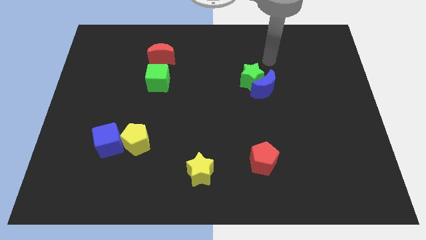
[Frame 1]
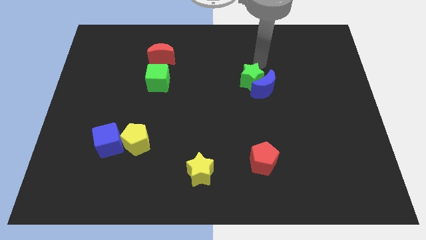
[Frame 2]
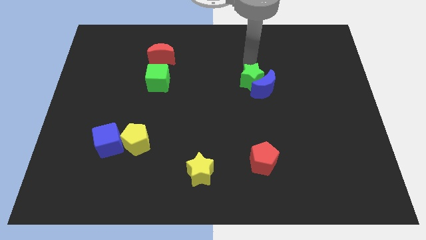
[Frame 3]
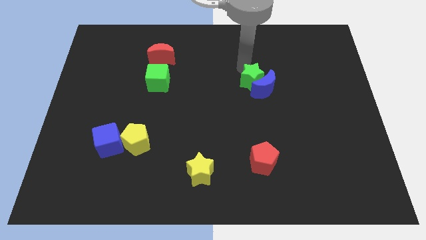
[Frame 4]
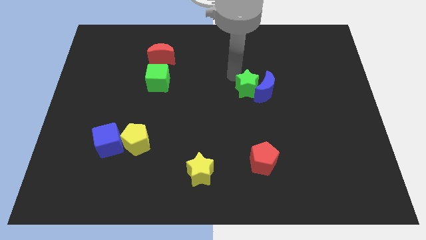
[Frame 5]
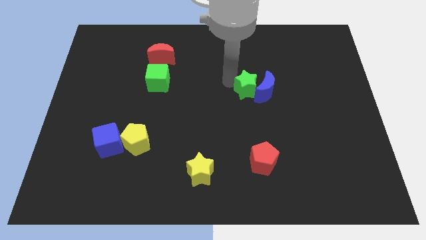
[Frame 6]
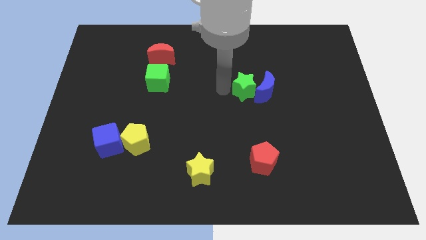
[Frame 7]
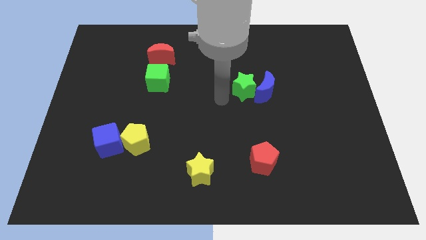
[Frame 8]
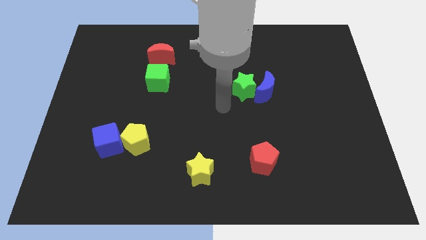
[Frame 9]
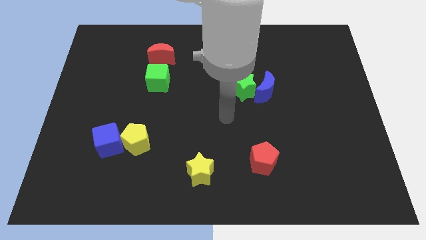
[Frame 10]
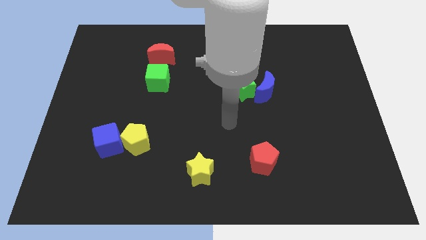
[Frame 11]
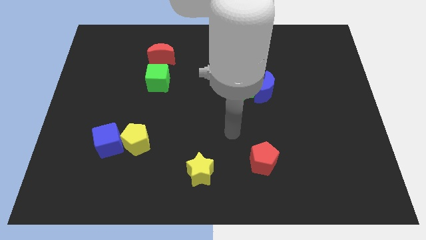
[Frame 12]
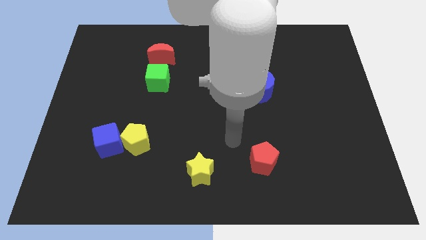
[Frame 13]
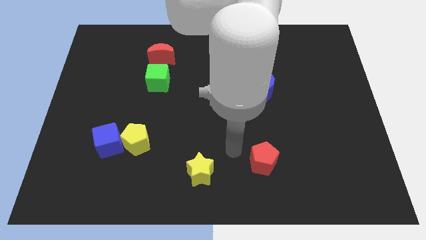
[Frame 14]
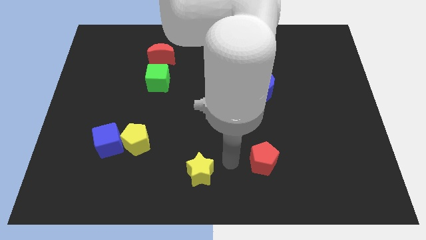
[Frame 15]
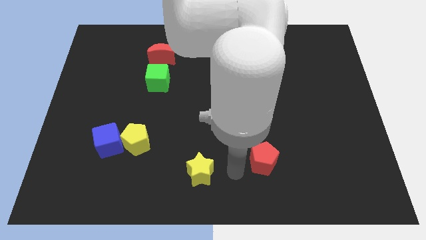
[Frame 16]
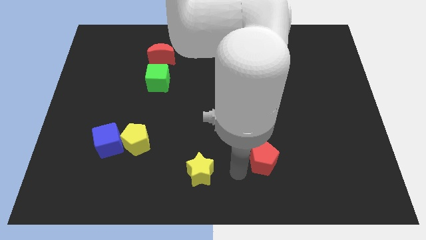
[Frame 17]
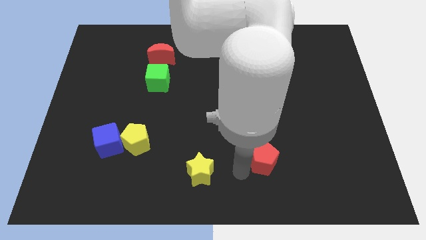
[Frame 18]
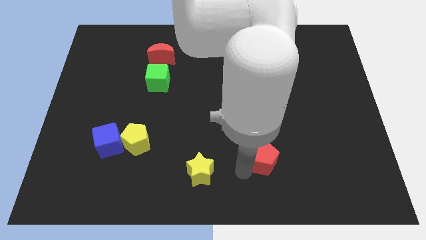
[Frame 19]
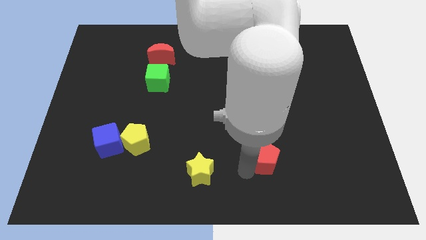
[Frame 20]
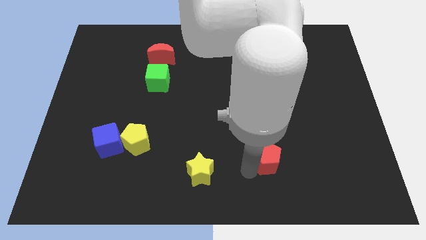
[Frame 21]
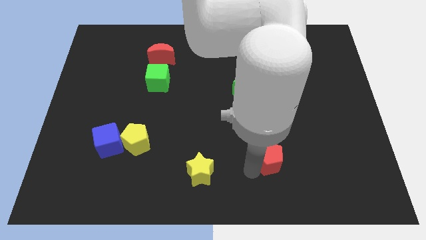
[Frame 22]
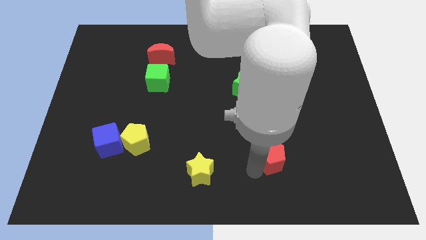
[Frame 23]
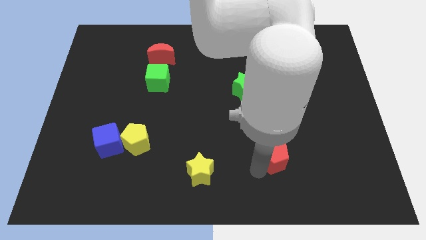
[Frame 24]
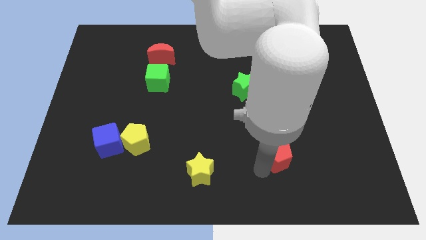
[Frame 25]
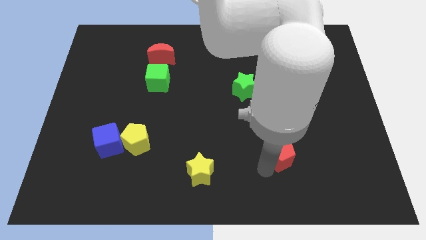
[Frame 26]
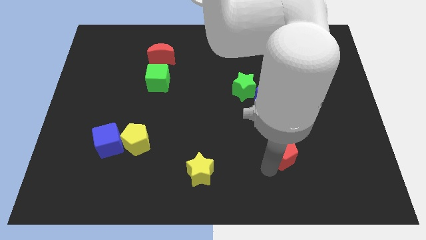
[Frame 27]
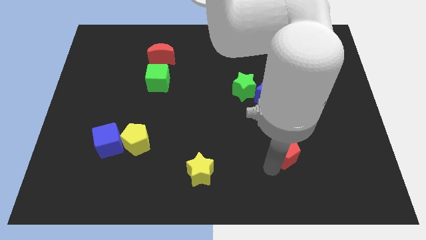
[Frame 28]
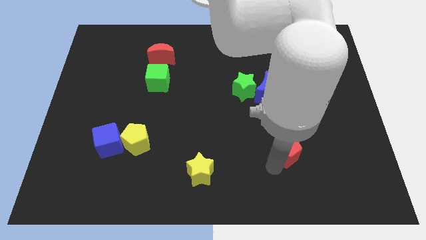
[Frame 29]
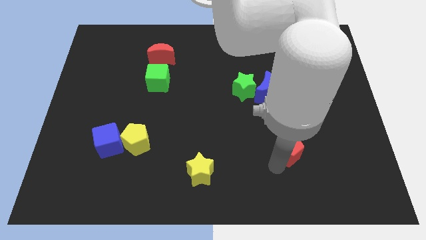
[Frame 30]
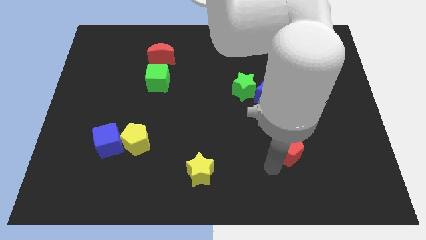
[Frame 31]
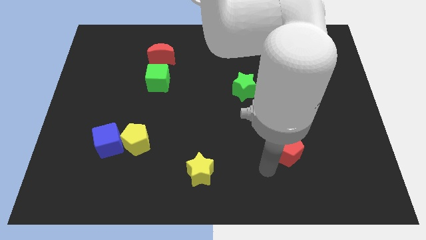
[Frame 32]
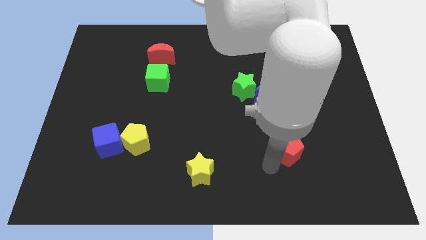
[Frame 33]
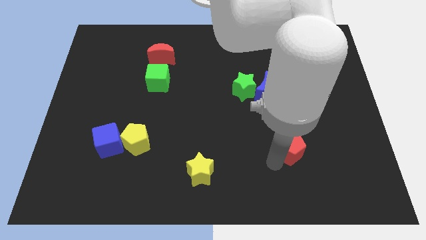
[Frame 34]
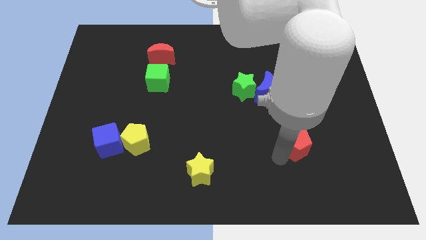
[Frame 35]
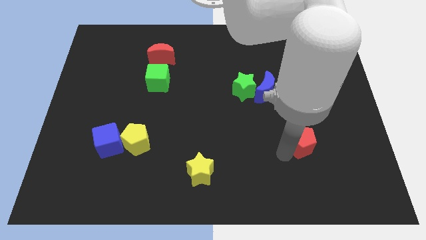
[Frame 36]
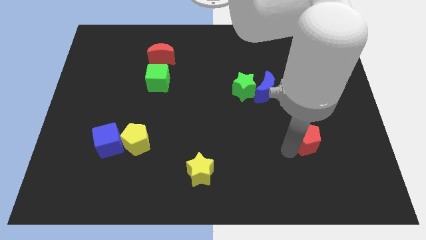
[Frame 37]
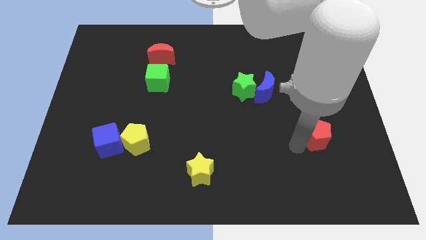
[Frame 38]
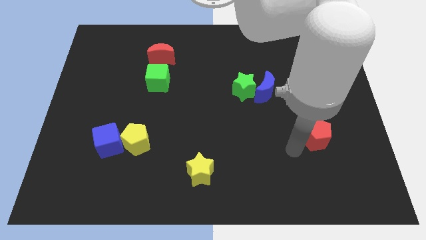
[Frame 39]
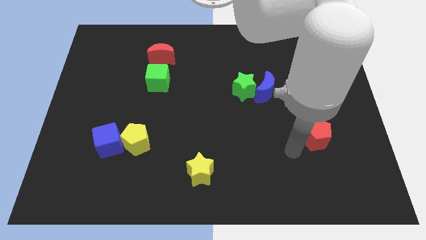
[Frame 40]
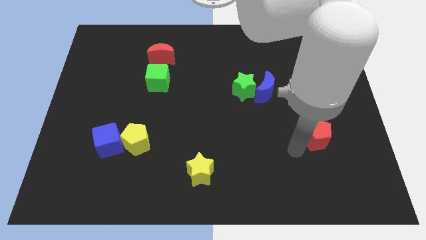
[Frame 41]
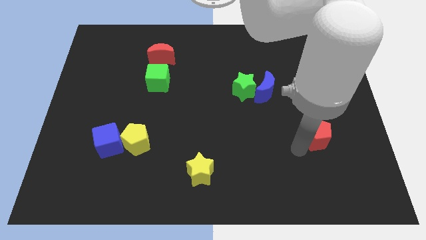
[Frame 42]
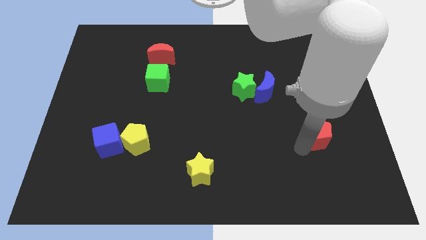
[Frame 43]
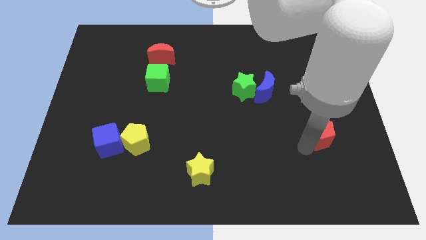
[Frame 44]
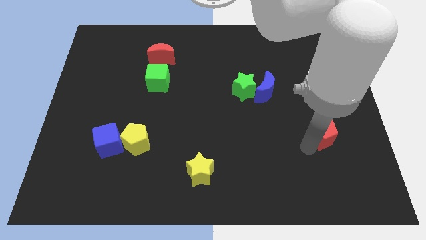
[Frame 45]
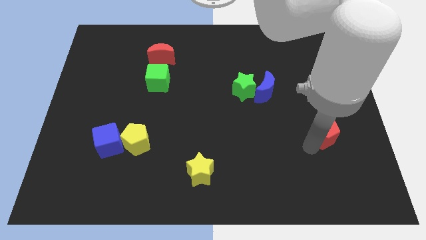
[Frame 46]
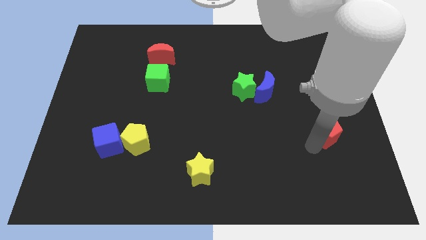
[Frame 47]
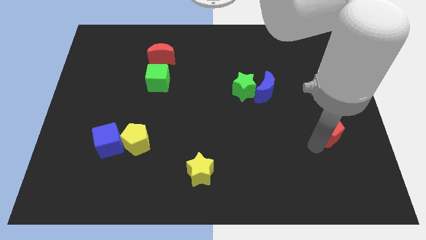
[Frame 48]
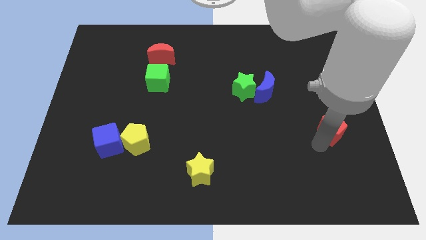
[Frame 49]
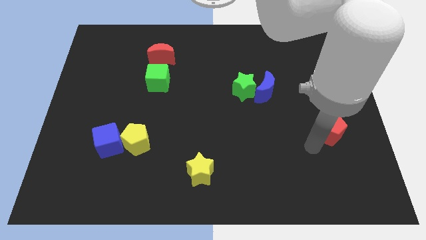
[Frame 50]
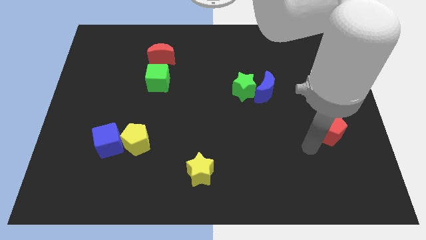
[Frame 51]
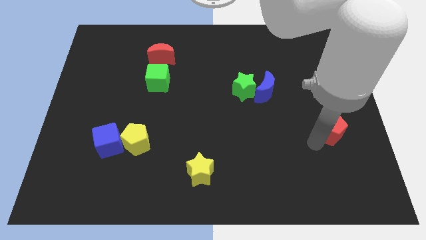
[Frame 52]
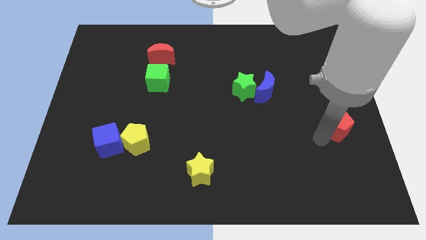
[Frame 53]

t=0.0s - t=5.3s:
put the red pentagon to the right side of the board

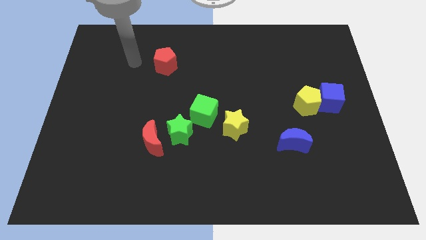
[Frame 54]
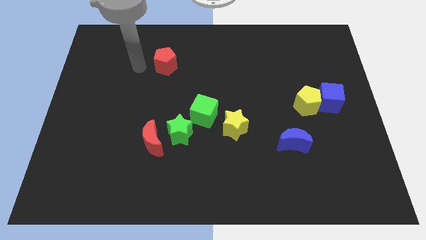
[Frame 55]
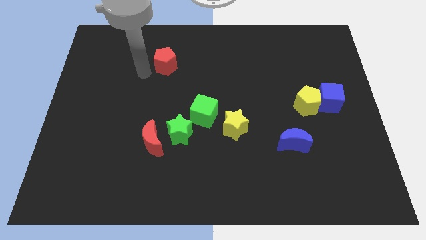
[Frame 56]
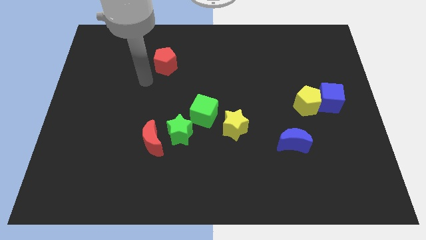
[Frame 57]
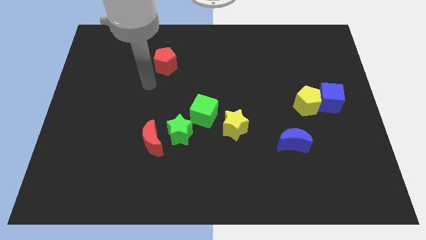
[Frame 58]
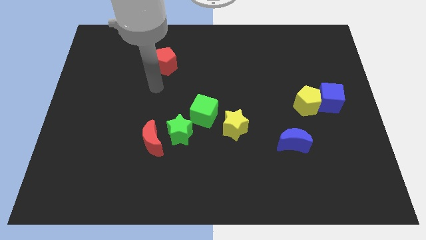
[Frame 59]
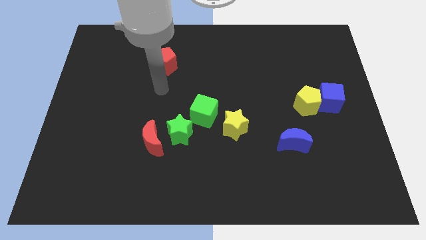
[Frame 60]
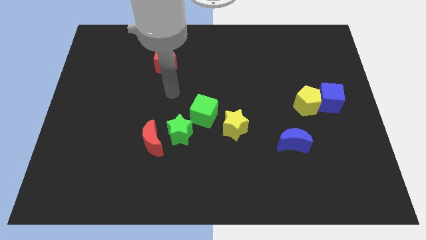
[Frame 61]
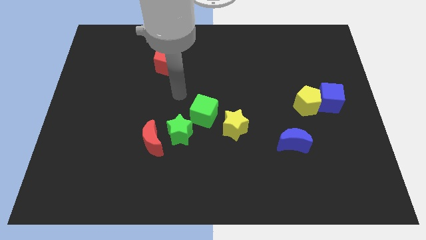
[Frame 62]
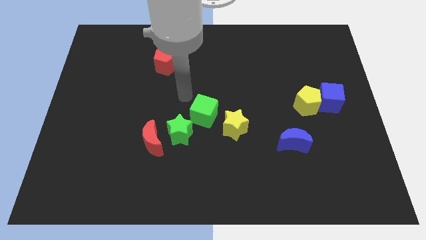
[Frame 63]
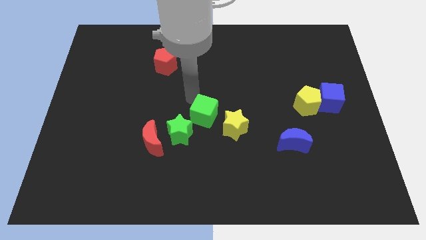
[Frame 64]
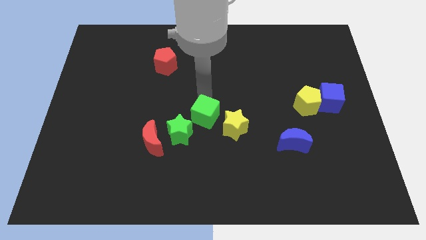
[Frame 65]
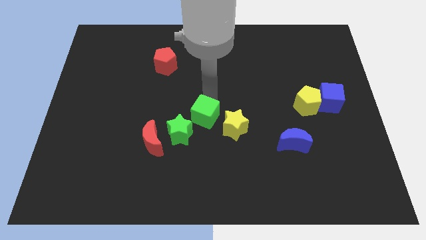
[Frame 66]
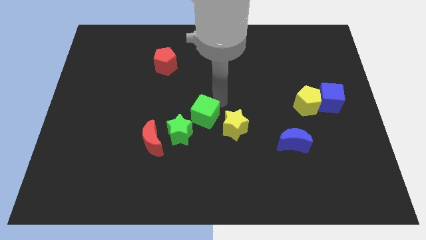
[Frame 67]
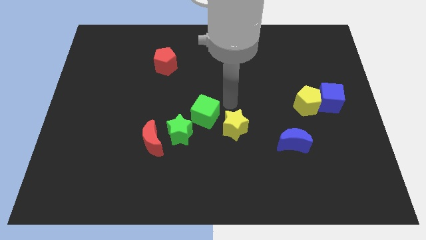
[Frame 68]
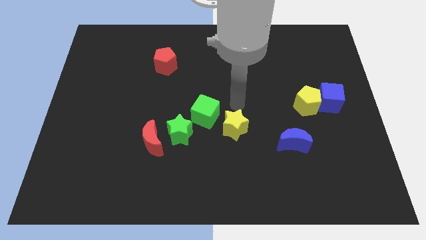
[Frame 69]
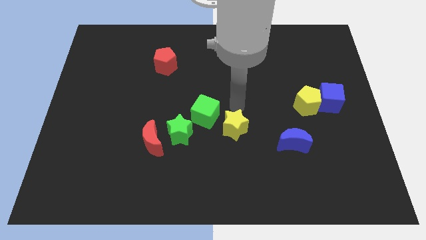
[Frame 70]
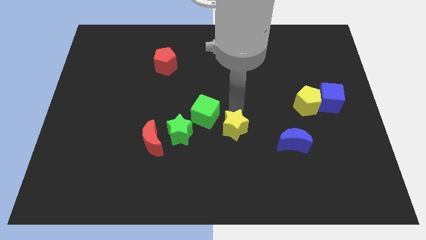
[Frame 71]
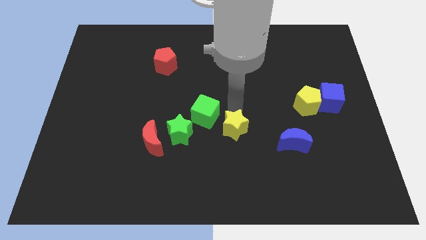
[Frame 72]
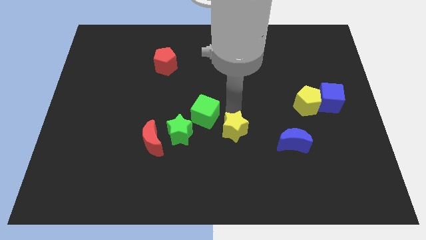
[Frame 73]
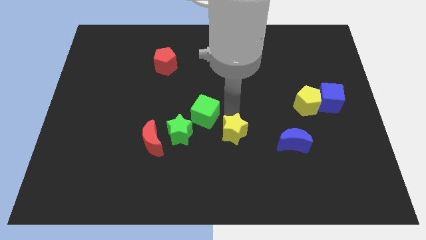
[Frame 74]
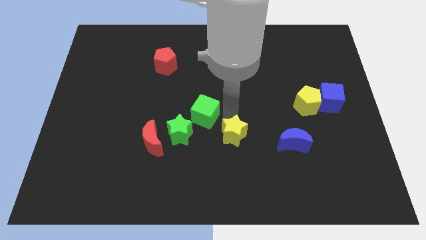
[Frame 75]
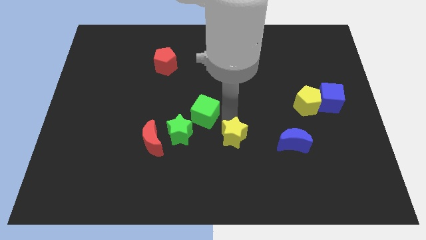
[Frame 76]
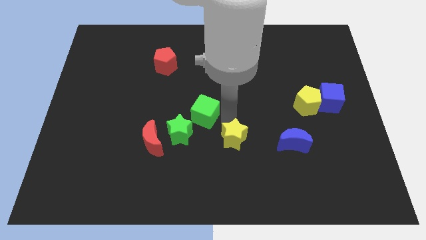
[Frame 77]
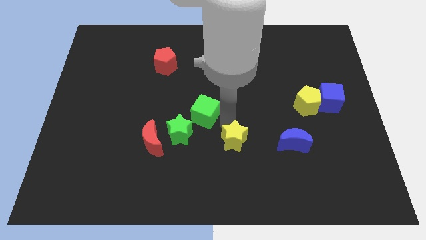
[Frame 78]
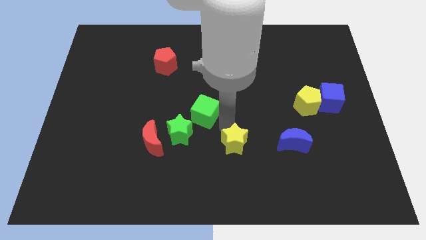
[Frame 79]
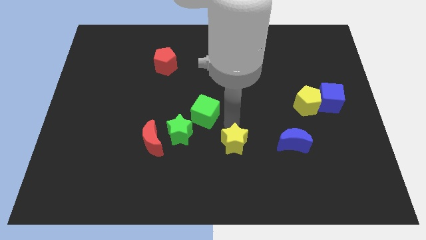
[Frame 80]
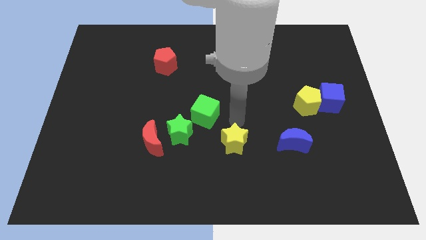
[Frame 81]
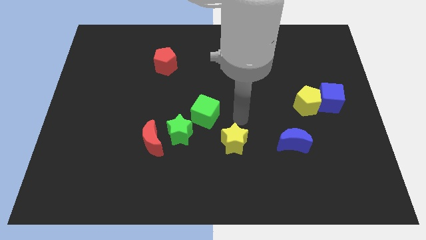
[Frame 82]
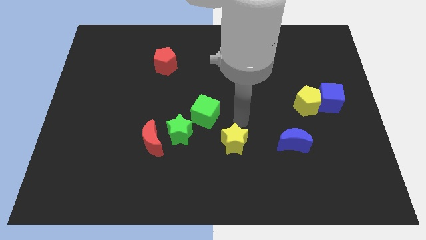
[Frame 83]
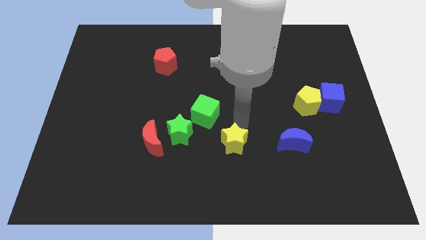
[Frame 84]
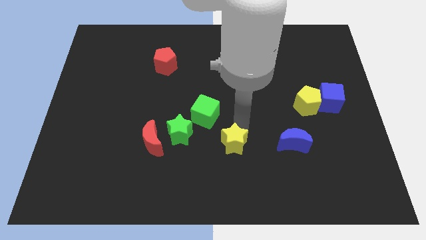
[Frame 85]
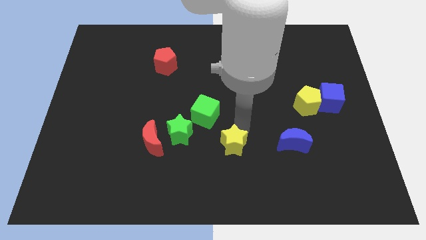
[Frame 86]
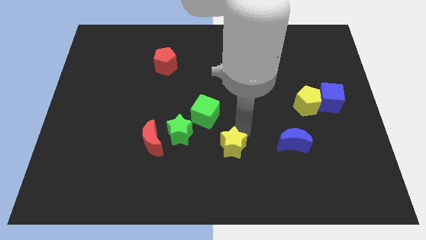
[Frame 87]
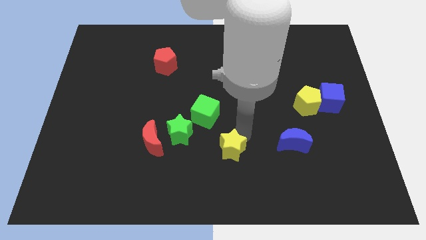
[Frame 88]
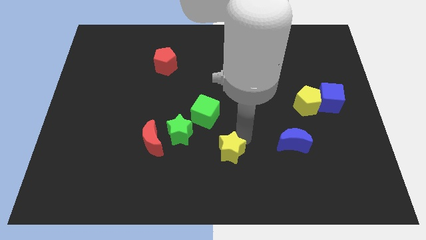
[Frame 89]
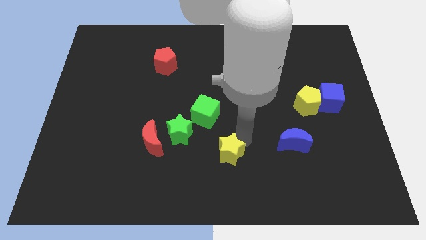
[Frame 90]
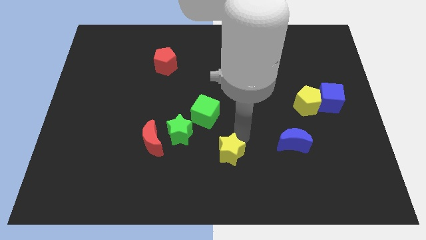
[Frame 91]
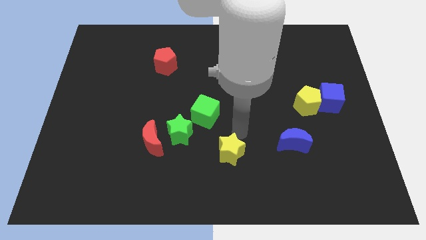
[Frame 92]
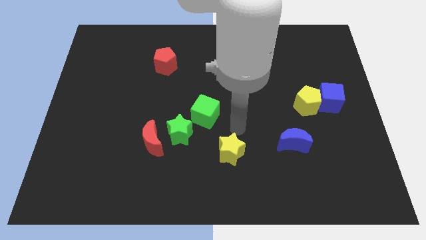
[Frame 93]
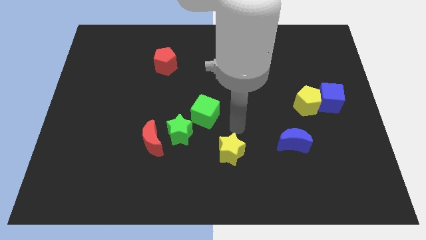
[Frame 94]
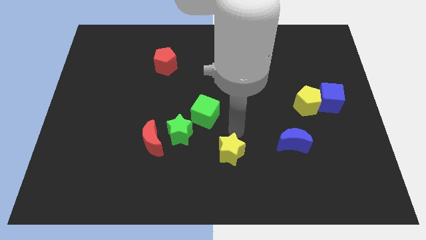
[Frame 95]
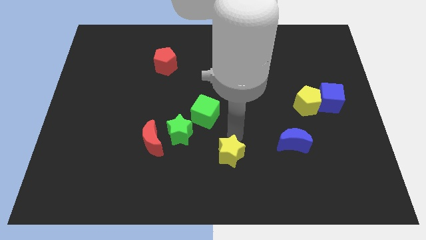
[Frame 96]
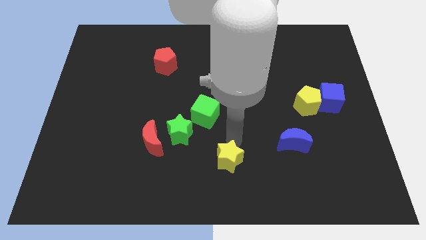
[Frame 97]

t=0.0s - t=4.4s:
slide the yellow star to the bottom side
